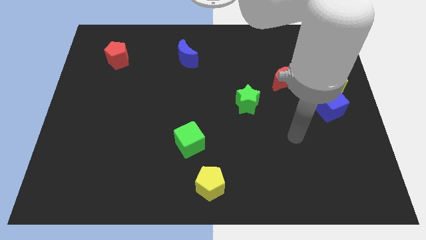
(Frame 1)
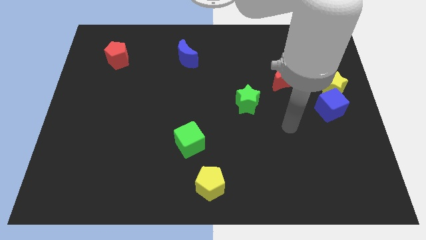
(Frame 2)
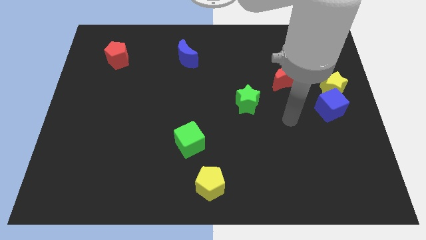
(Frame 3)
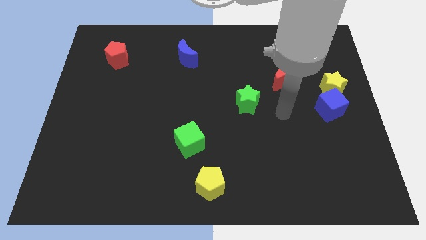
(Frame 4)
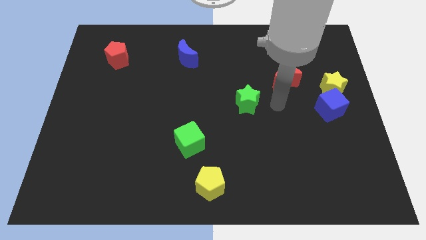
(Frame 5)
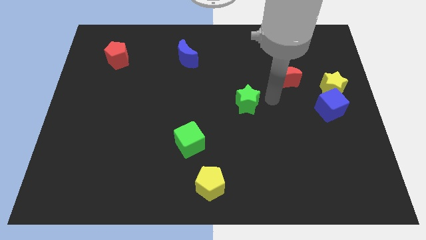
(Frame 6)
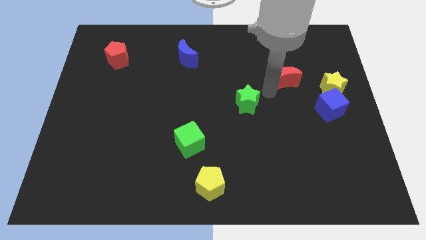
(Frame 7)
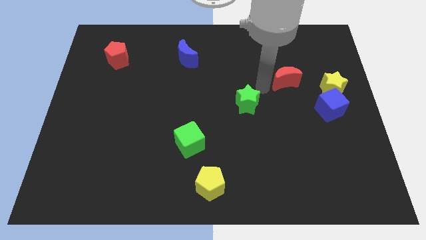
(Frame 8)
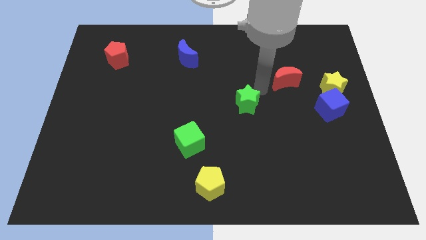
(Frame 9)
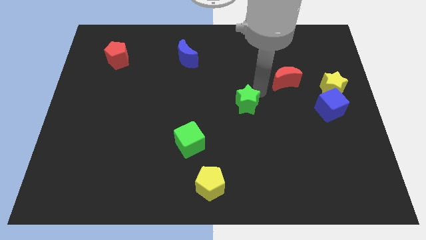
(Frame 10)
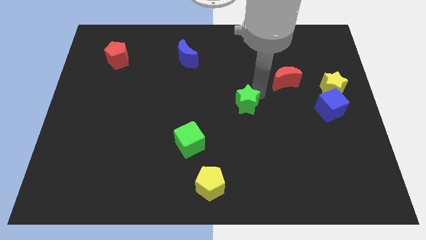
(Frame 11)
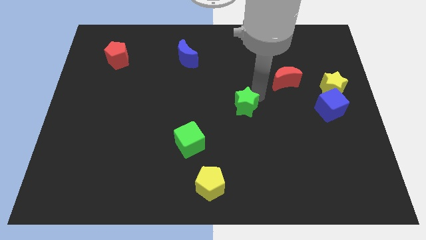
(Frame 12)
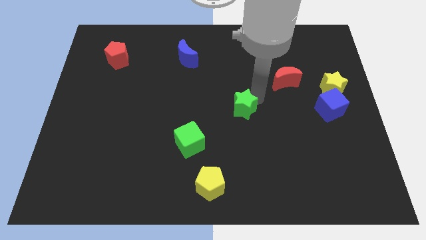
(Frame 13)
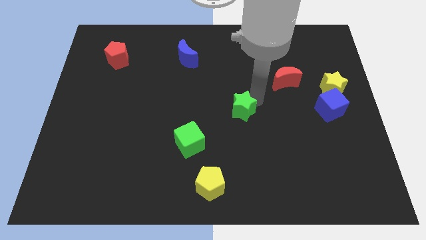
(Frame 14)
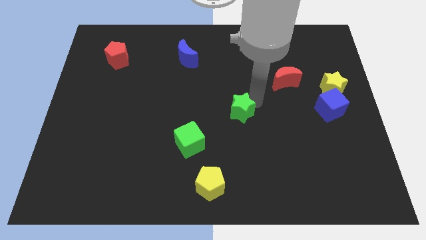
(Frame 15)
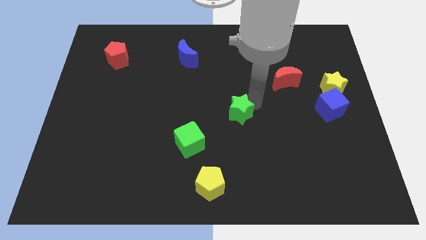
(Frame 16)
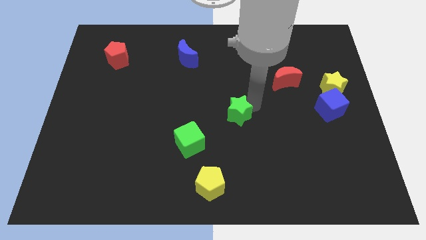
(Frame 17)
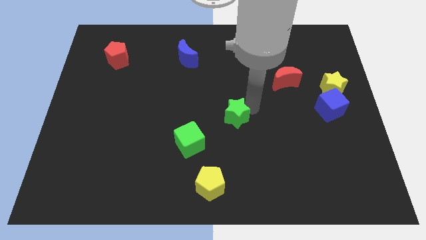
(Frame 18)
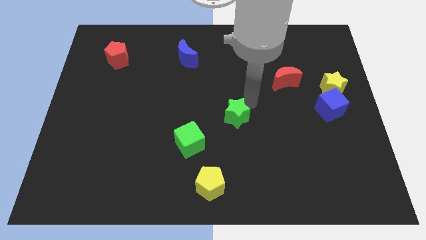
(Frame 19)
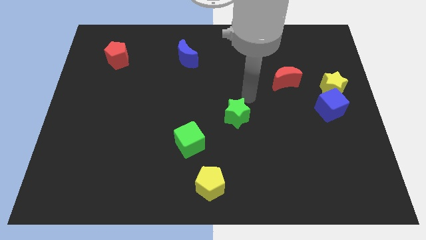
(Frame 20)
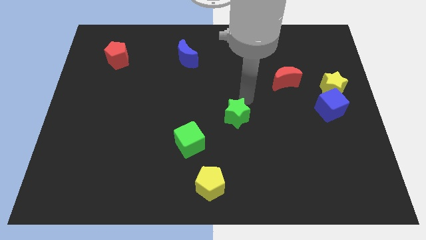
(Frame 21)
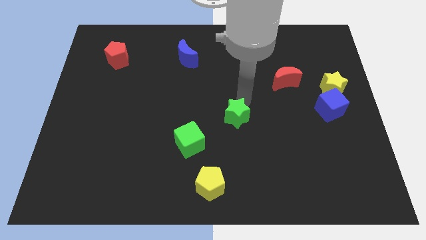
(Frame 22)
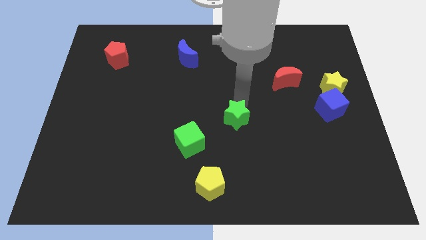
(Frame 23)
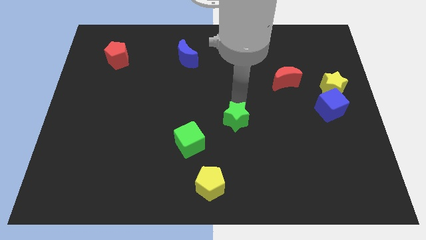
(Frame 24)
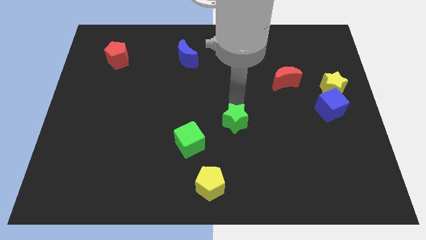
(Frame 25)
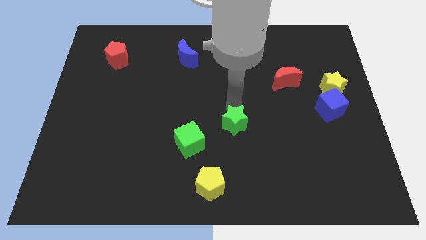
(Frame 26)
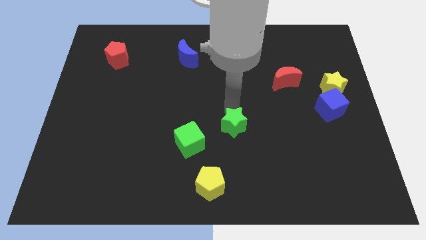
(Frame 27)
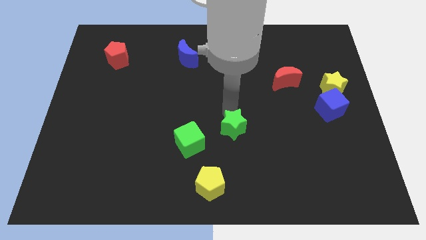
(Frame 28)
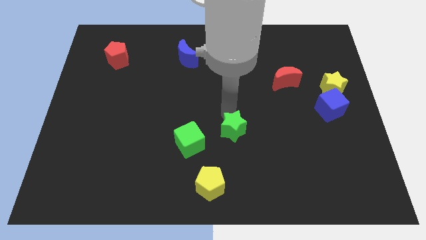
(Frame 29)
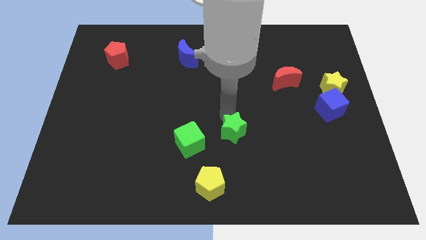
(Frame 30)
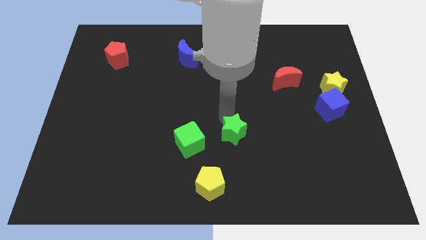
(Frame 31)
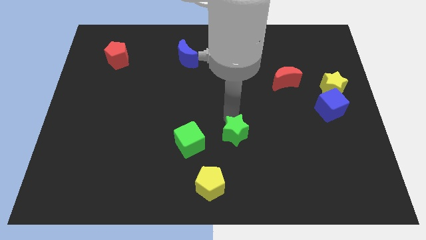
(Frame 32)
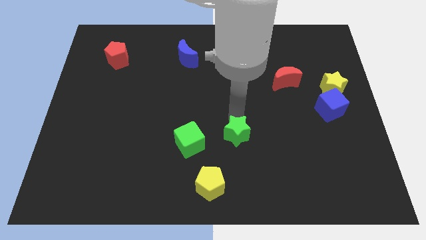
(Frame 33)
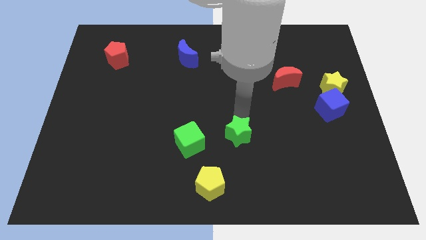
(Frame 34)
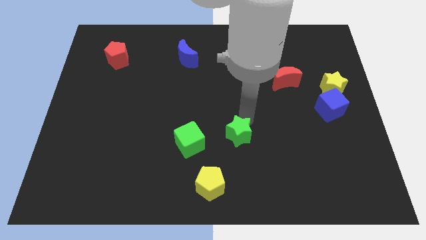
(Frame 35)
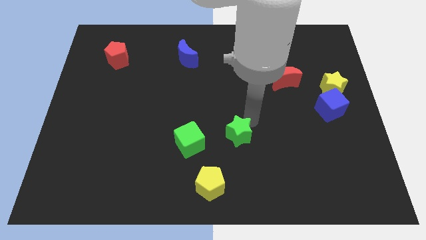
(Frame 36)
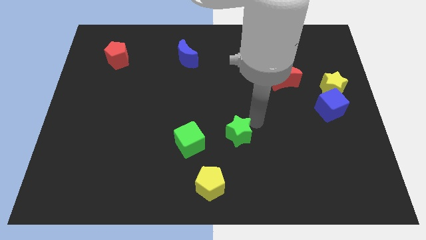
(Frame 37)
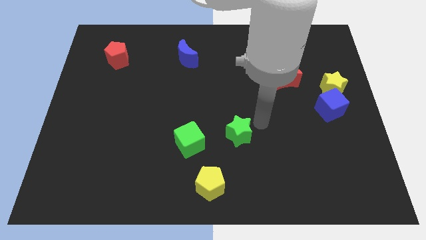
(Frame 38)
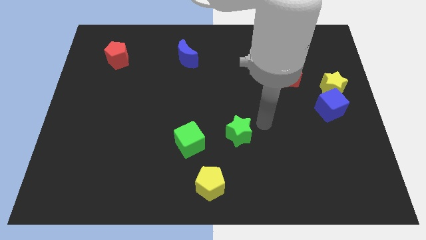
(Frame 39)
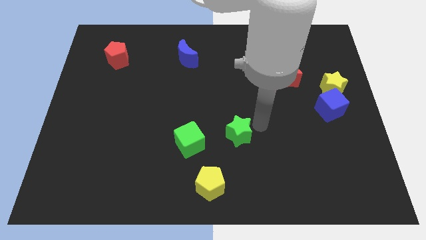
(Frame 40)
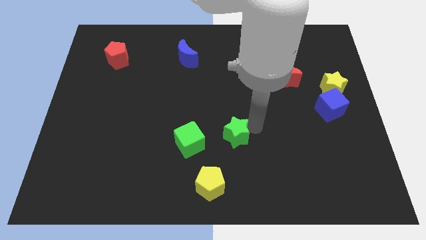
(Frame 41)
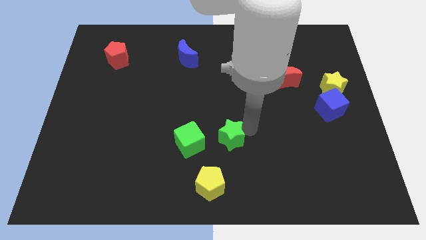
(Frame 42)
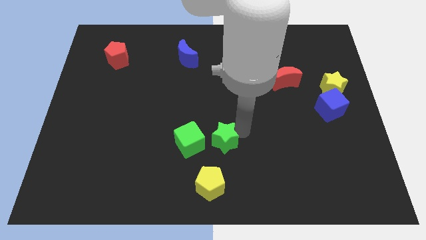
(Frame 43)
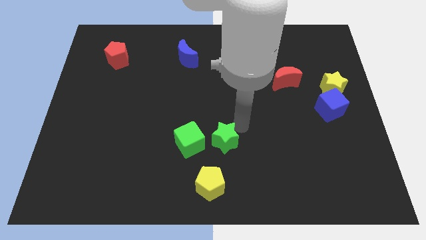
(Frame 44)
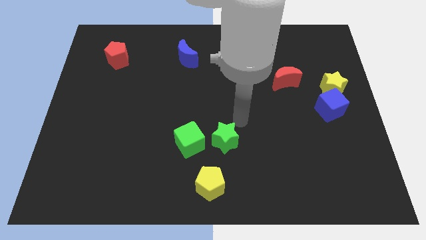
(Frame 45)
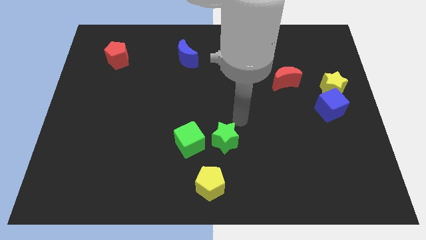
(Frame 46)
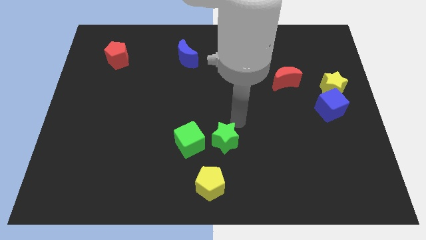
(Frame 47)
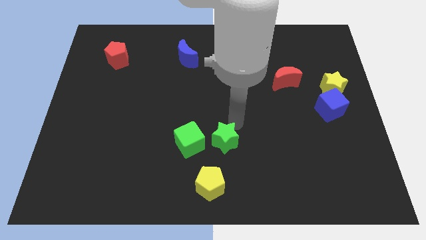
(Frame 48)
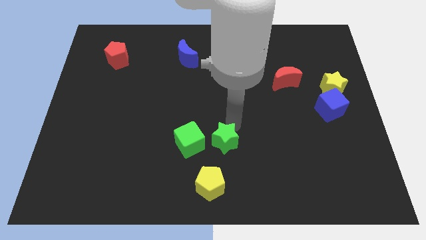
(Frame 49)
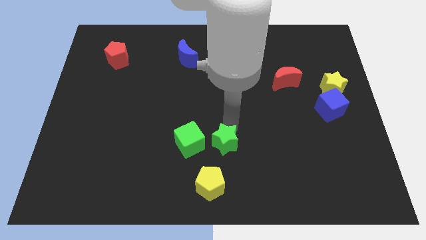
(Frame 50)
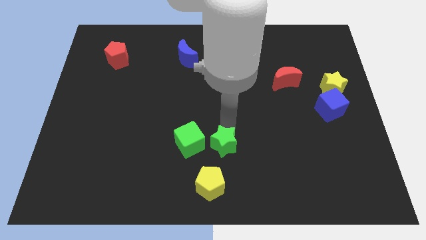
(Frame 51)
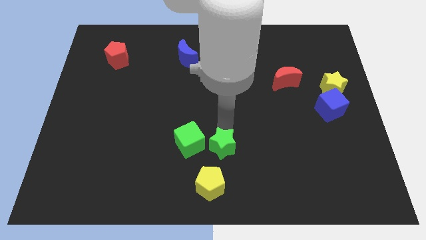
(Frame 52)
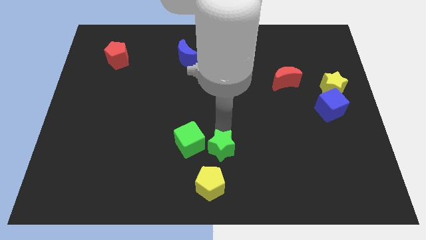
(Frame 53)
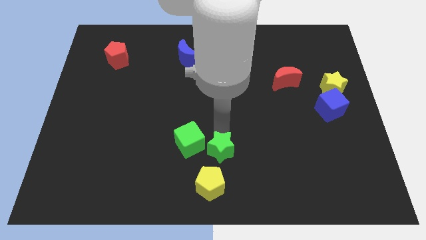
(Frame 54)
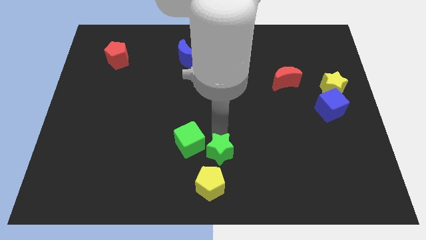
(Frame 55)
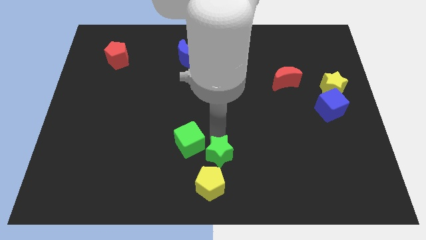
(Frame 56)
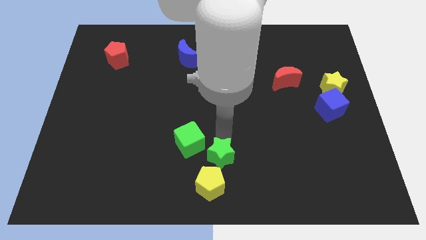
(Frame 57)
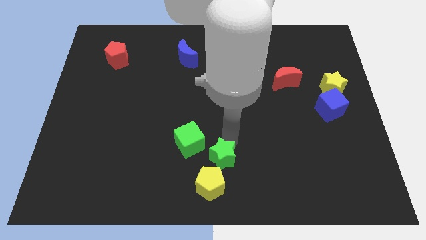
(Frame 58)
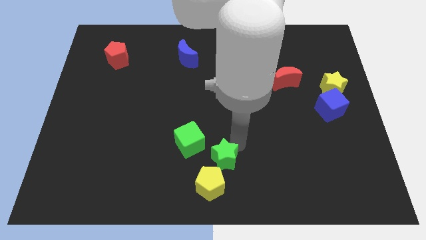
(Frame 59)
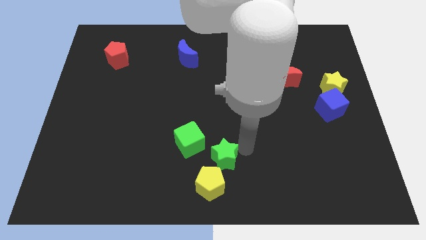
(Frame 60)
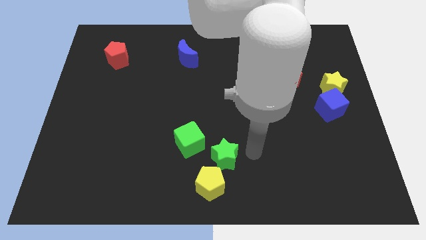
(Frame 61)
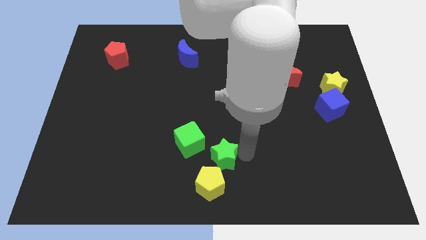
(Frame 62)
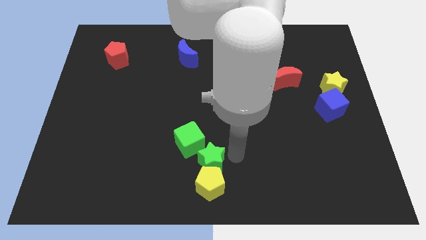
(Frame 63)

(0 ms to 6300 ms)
slide the green star to the top left side of the yellow pentagon

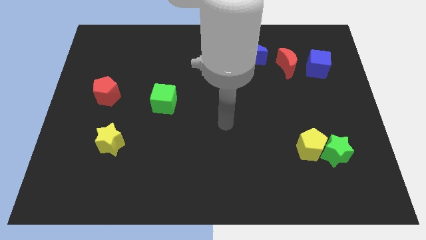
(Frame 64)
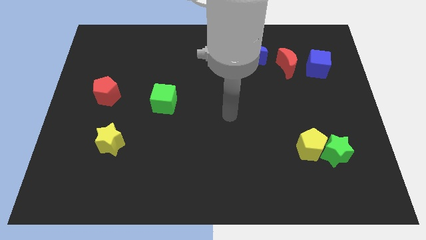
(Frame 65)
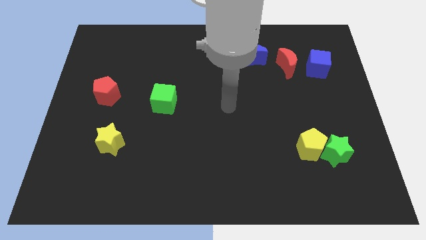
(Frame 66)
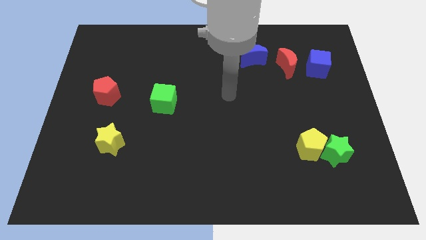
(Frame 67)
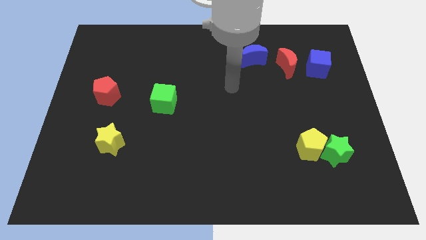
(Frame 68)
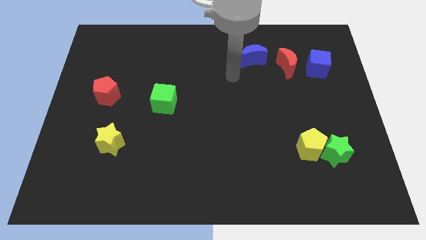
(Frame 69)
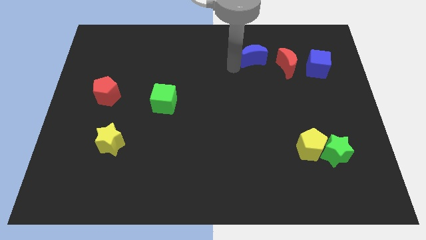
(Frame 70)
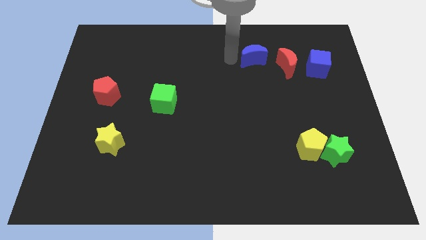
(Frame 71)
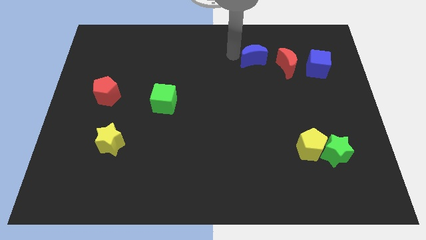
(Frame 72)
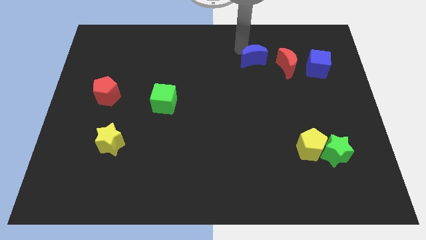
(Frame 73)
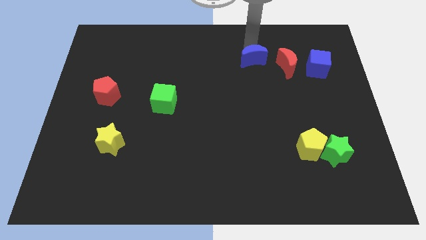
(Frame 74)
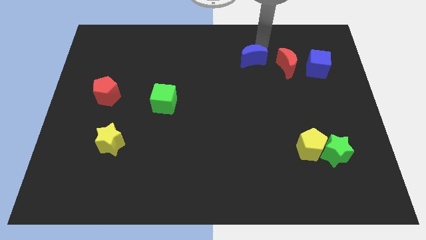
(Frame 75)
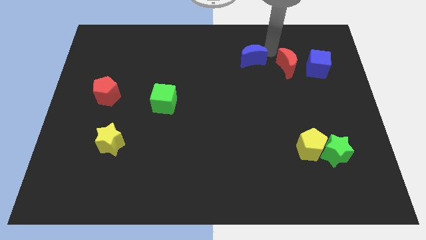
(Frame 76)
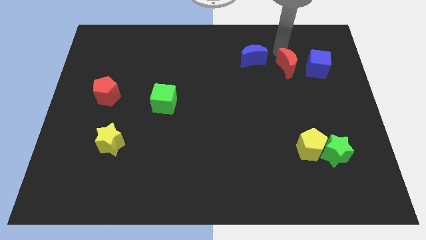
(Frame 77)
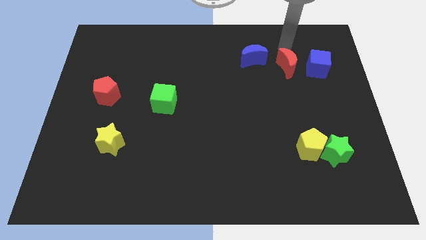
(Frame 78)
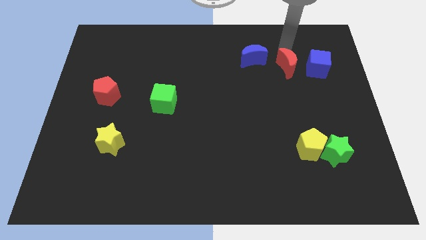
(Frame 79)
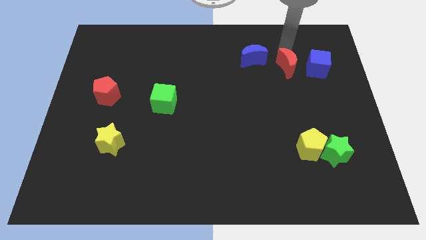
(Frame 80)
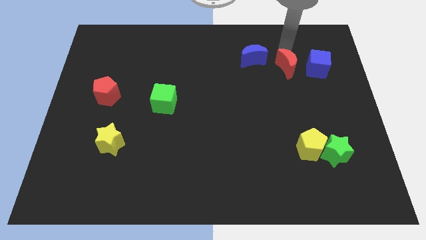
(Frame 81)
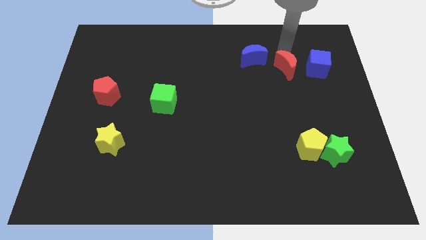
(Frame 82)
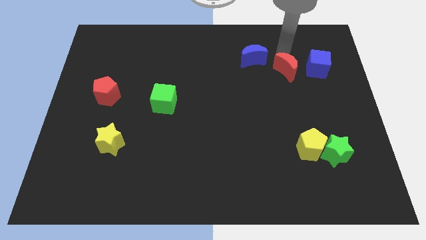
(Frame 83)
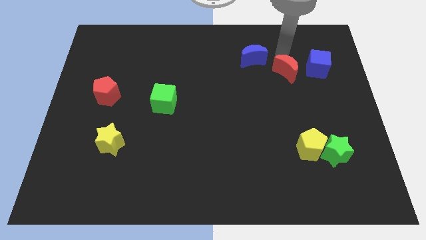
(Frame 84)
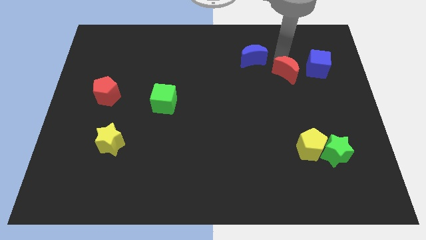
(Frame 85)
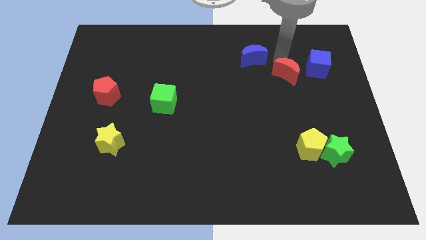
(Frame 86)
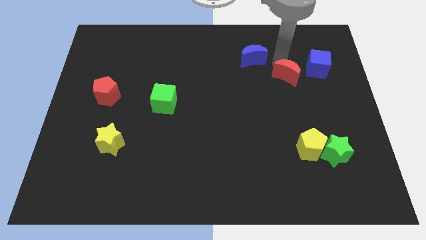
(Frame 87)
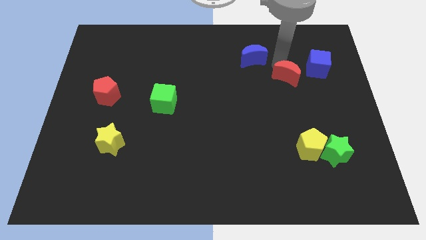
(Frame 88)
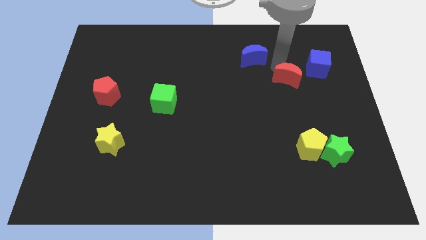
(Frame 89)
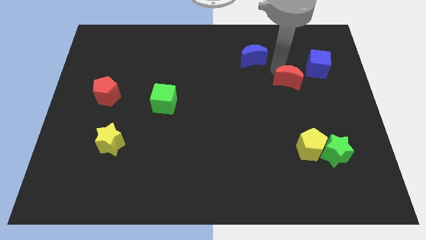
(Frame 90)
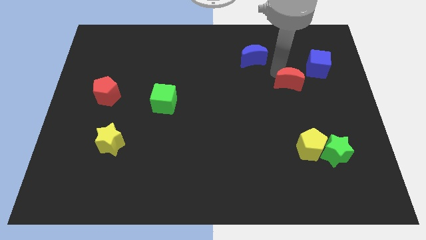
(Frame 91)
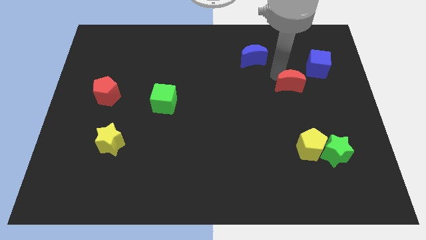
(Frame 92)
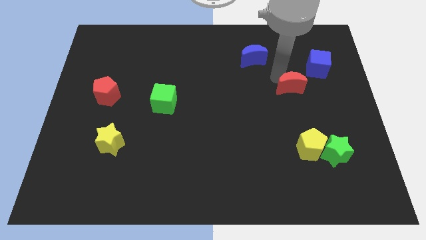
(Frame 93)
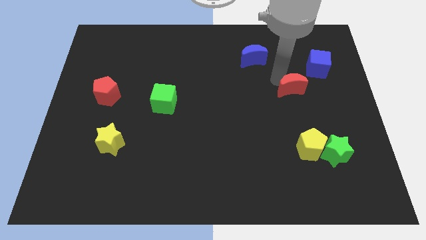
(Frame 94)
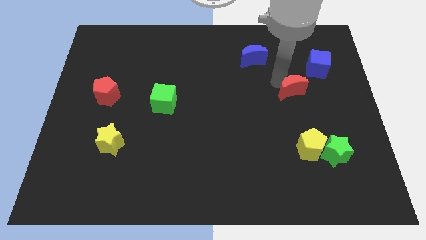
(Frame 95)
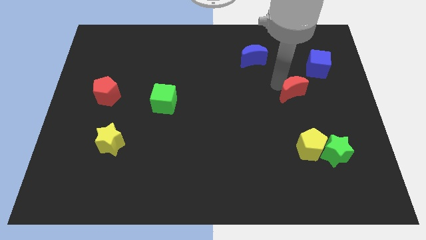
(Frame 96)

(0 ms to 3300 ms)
push the red moon to the top of the yellow pentagon
